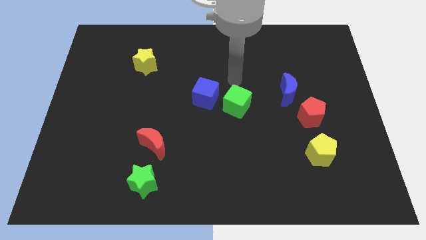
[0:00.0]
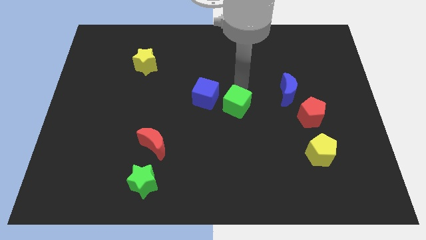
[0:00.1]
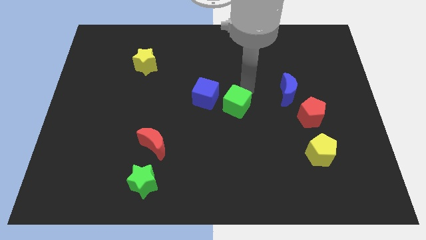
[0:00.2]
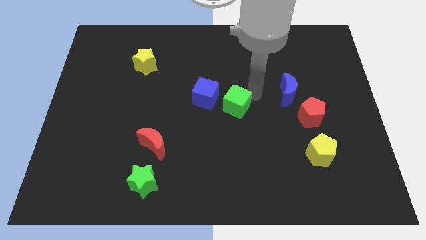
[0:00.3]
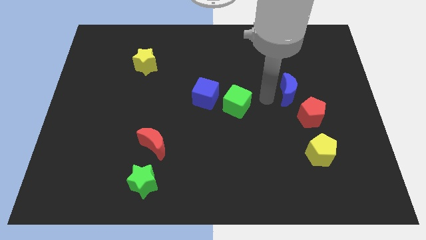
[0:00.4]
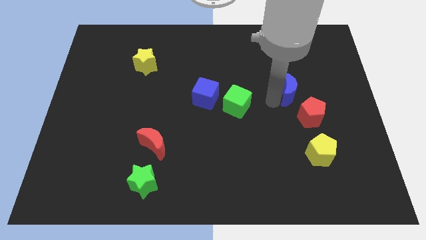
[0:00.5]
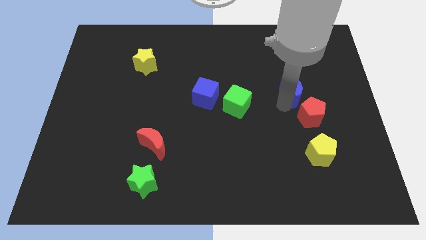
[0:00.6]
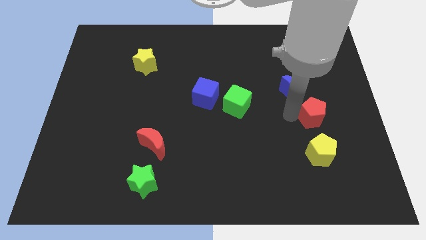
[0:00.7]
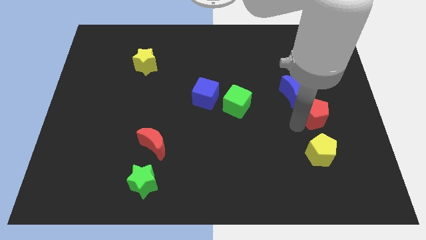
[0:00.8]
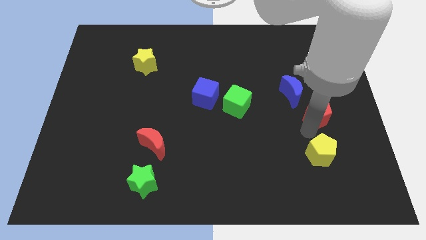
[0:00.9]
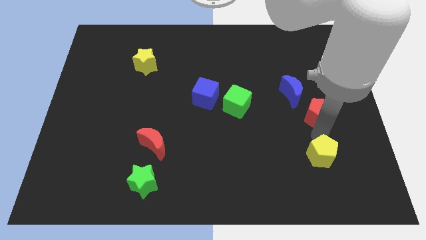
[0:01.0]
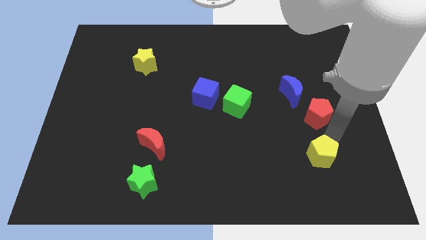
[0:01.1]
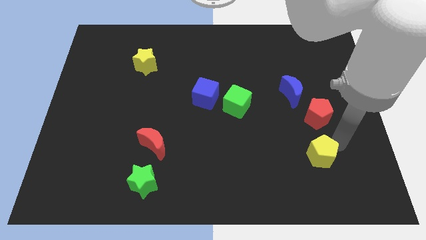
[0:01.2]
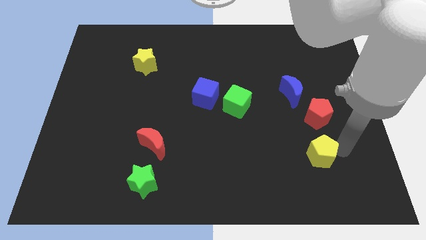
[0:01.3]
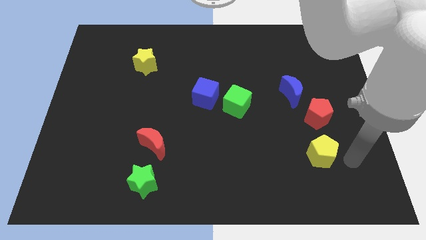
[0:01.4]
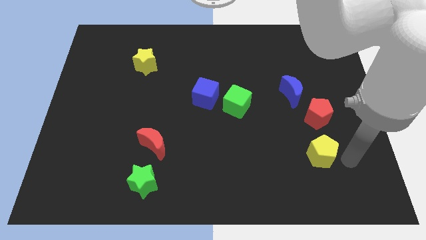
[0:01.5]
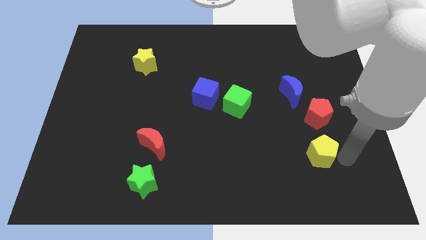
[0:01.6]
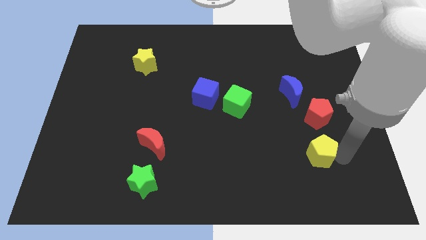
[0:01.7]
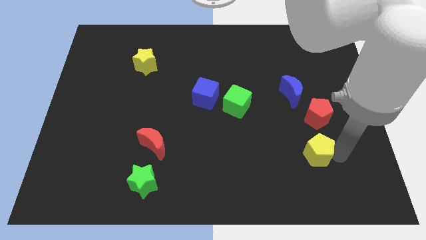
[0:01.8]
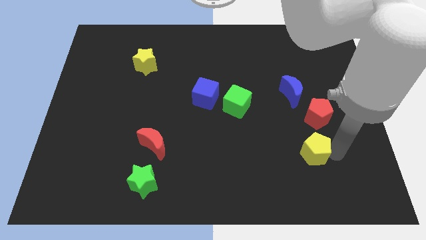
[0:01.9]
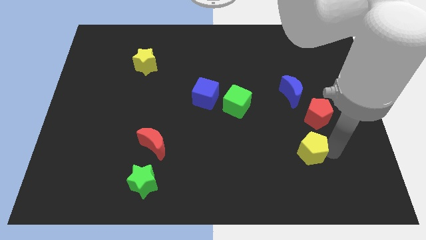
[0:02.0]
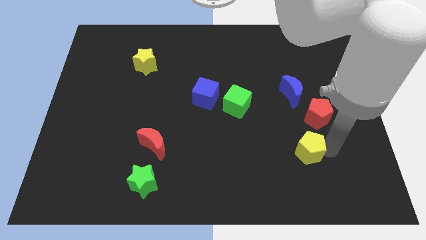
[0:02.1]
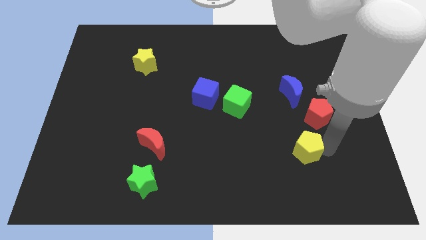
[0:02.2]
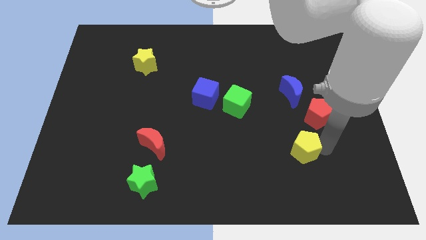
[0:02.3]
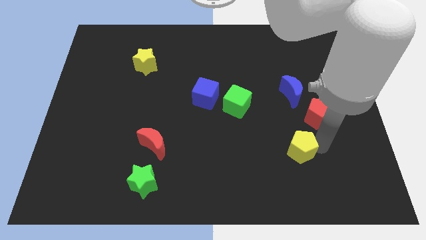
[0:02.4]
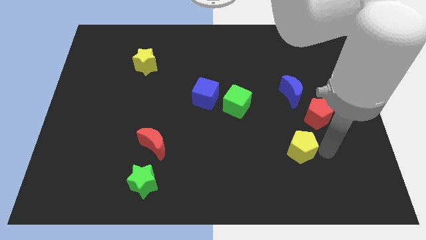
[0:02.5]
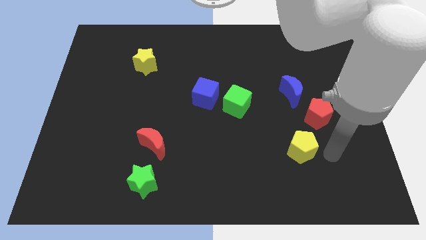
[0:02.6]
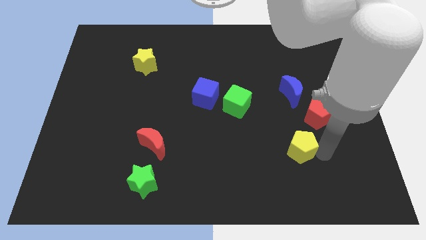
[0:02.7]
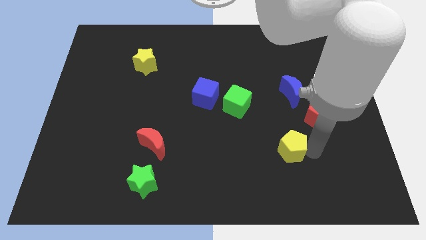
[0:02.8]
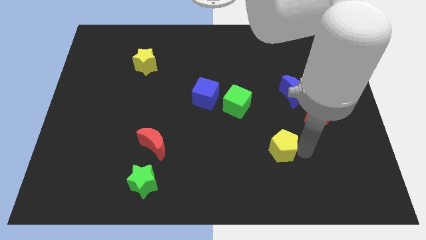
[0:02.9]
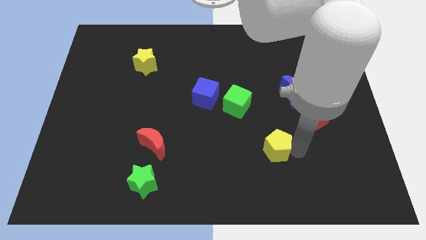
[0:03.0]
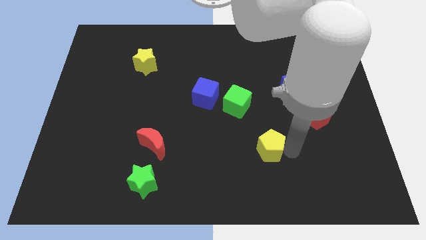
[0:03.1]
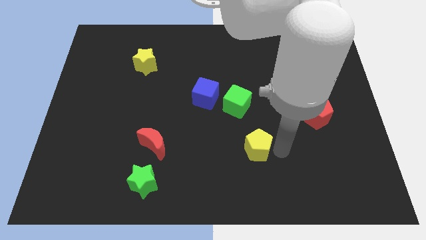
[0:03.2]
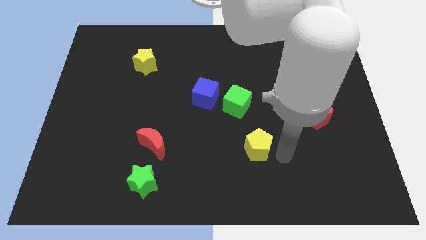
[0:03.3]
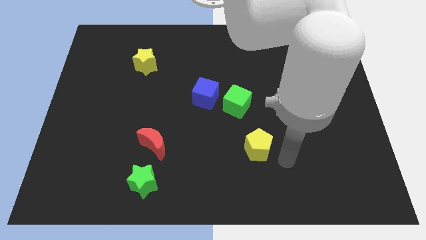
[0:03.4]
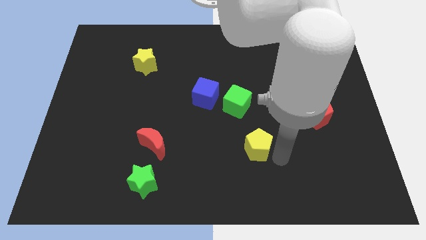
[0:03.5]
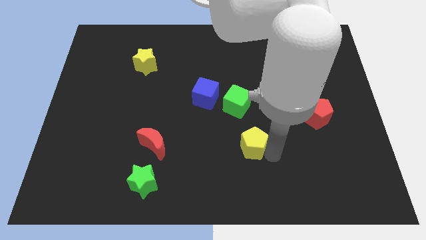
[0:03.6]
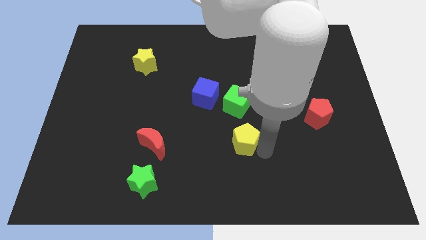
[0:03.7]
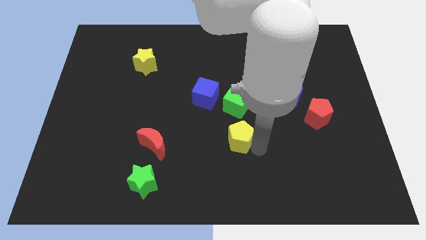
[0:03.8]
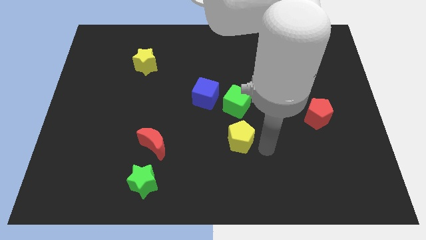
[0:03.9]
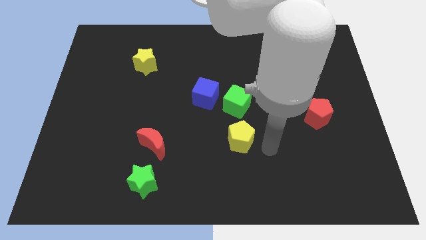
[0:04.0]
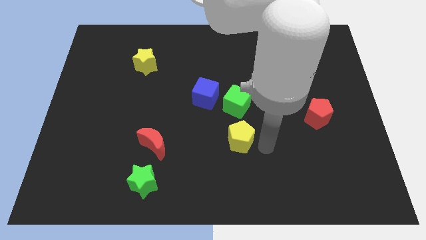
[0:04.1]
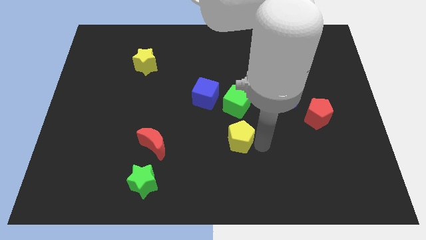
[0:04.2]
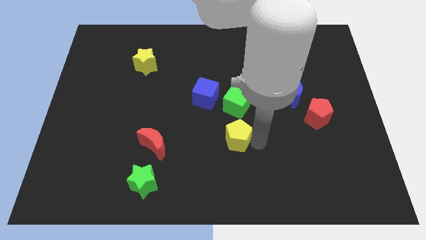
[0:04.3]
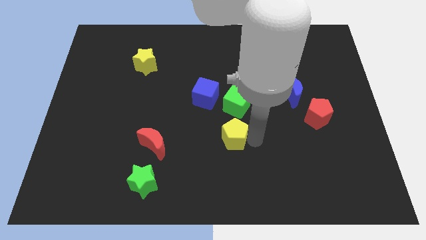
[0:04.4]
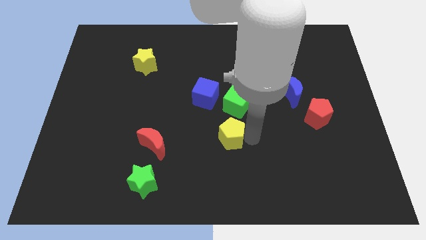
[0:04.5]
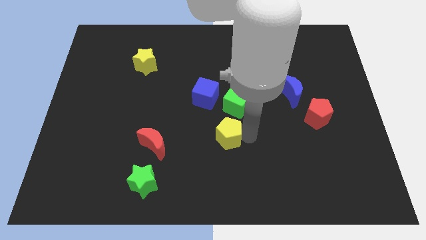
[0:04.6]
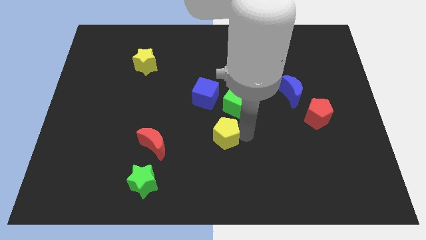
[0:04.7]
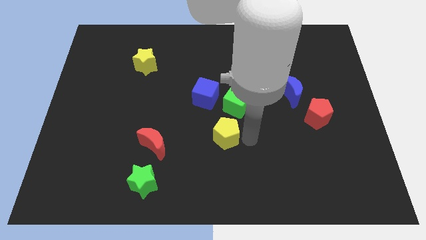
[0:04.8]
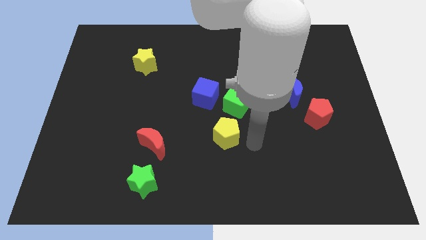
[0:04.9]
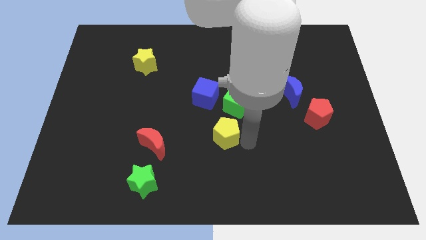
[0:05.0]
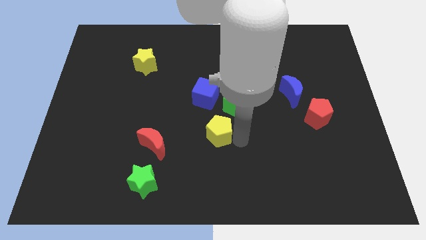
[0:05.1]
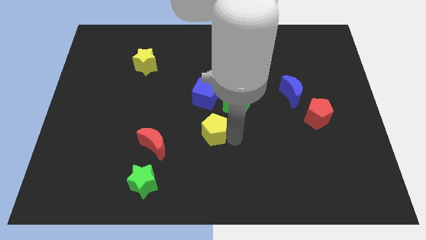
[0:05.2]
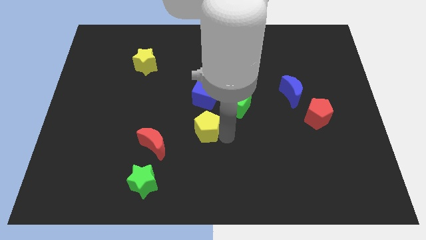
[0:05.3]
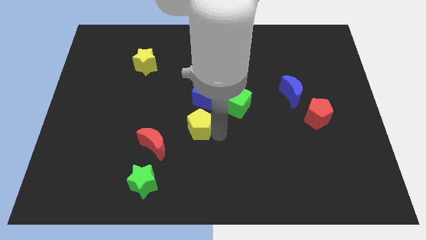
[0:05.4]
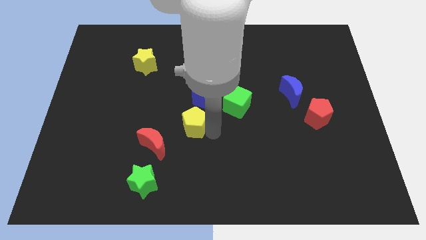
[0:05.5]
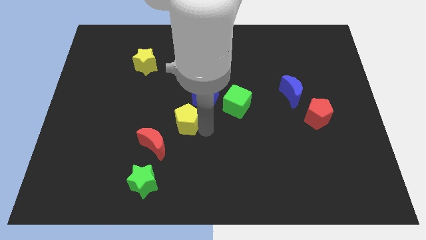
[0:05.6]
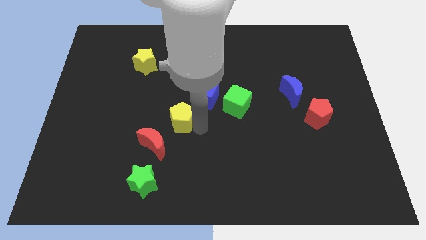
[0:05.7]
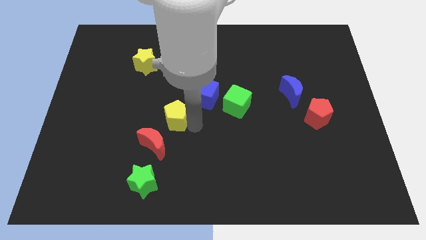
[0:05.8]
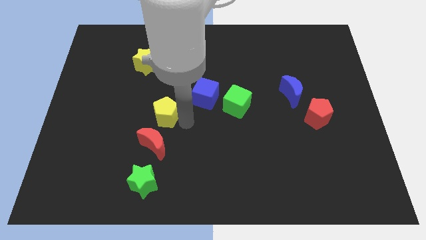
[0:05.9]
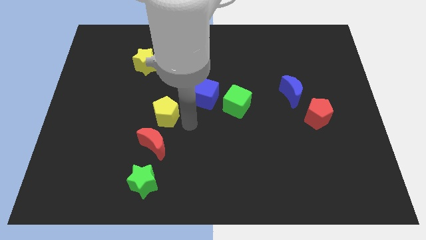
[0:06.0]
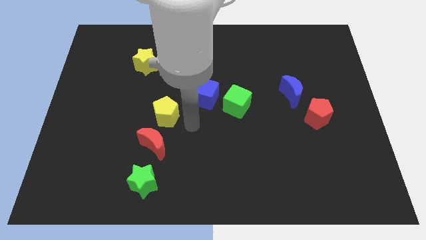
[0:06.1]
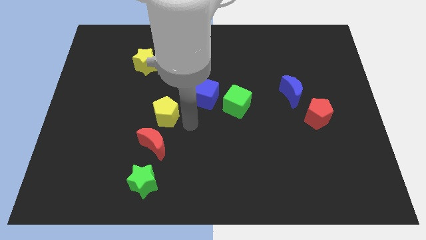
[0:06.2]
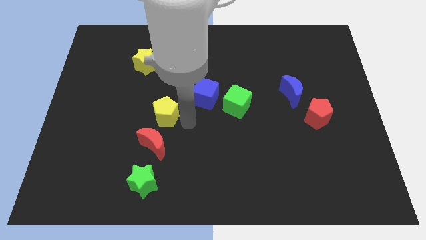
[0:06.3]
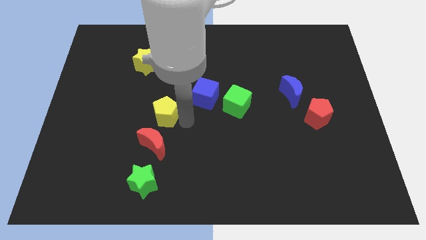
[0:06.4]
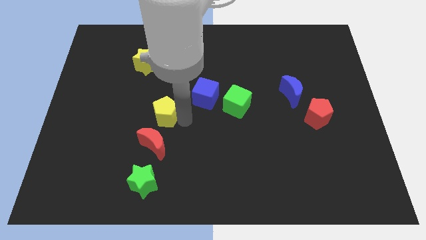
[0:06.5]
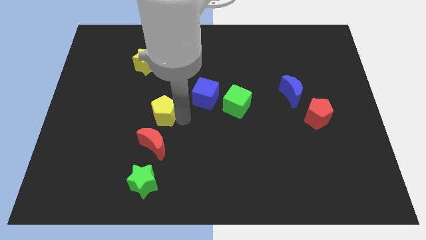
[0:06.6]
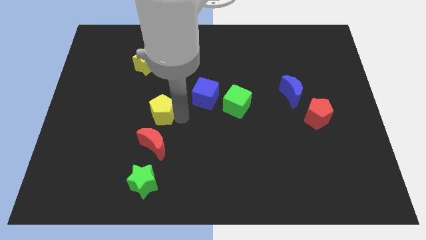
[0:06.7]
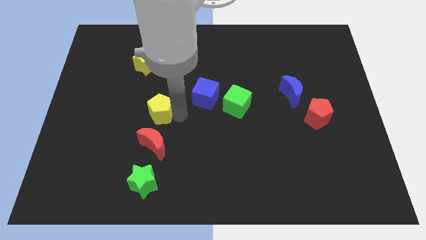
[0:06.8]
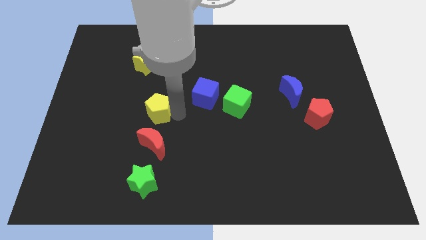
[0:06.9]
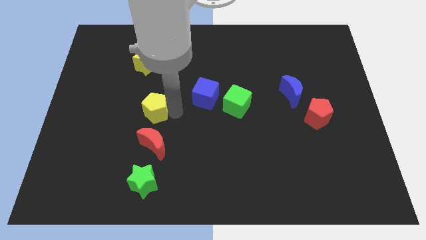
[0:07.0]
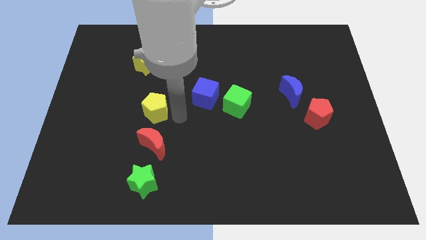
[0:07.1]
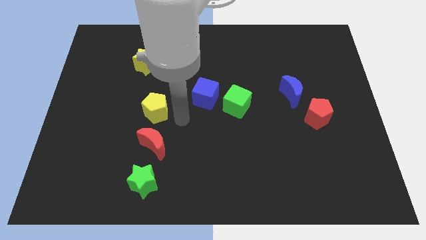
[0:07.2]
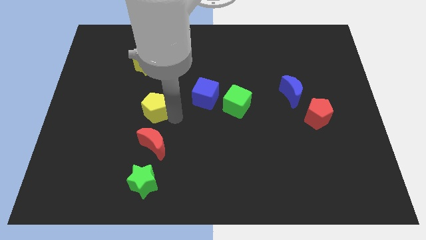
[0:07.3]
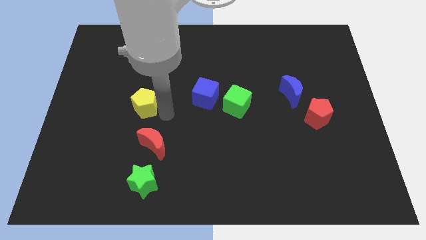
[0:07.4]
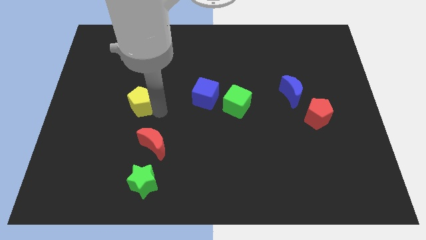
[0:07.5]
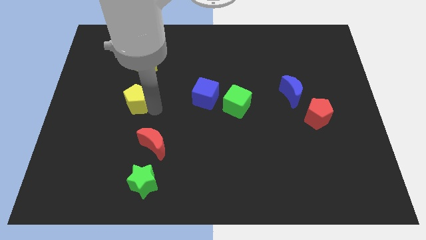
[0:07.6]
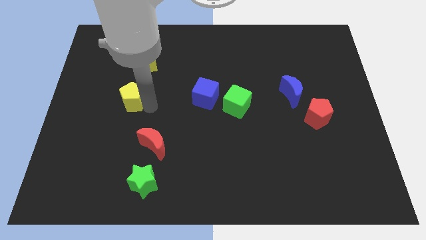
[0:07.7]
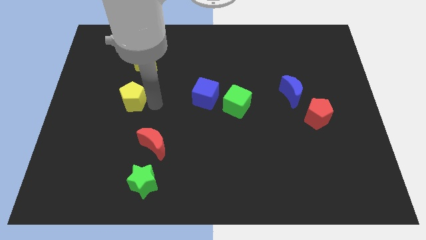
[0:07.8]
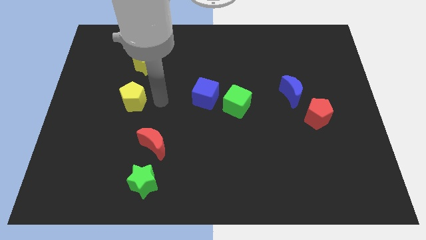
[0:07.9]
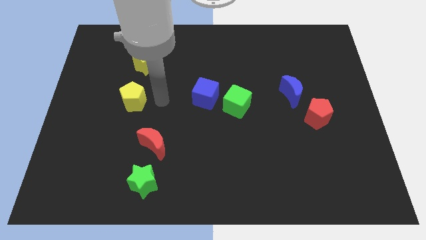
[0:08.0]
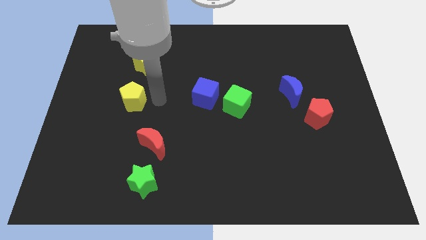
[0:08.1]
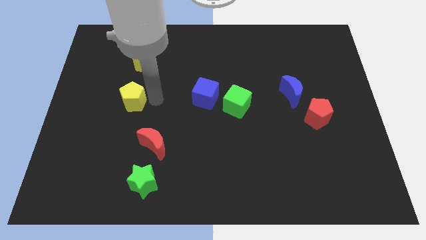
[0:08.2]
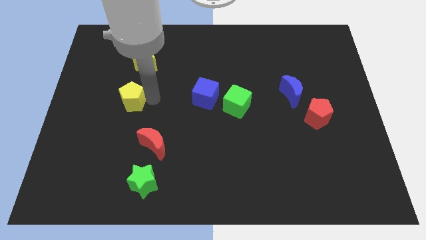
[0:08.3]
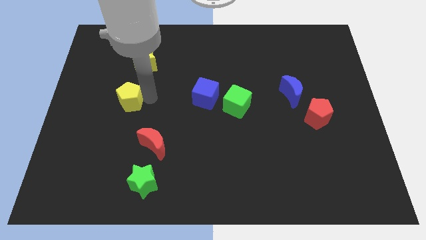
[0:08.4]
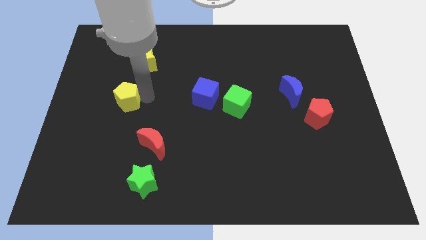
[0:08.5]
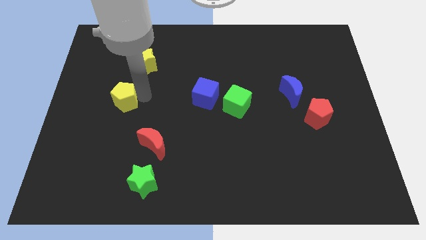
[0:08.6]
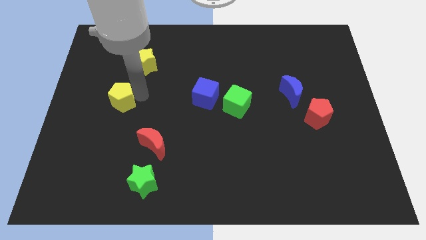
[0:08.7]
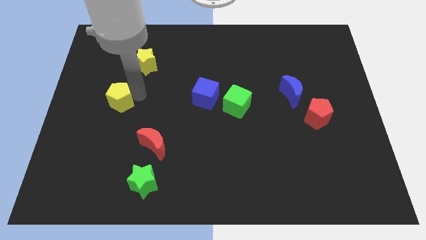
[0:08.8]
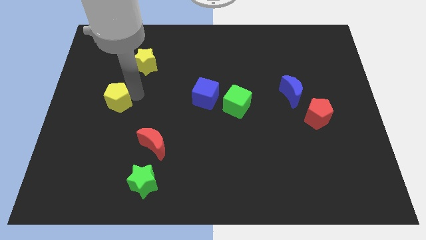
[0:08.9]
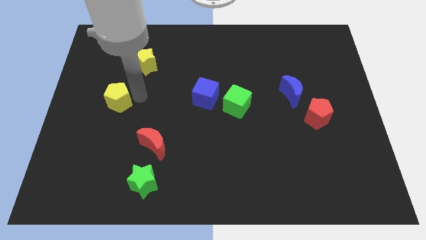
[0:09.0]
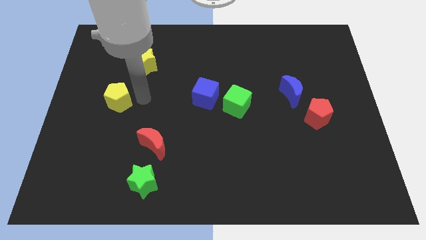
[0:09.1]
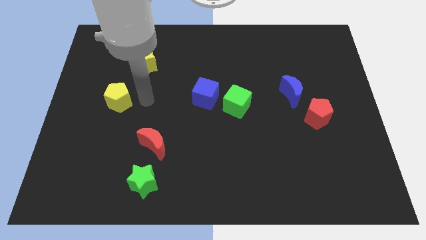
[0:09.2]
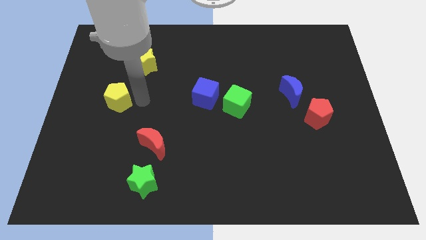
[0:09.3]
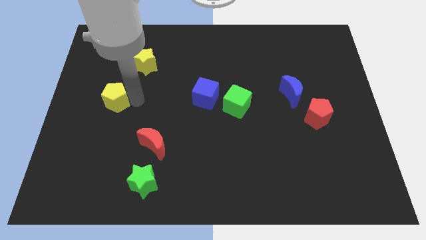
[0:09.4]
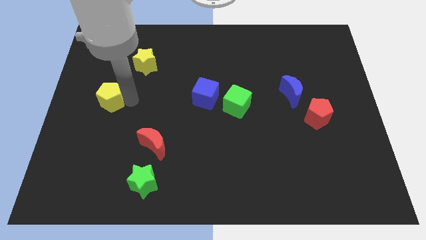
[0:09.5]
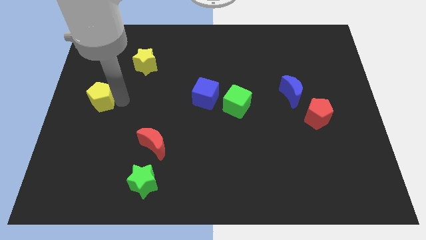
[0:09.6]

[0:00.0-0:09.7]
slide the yellow pentagon to the center left
